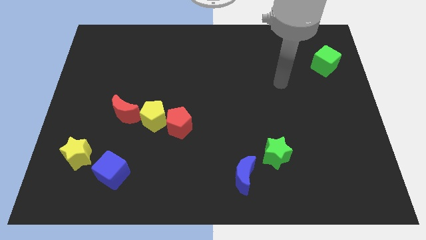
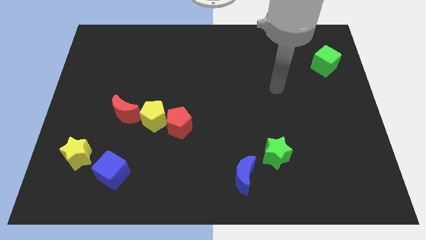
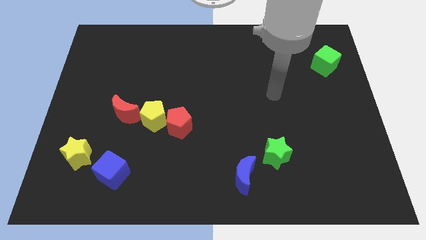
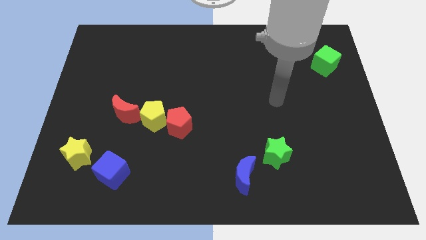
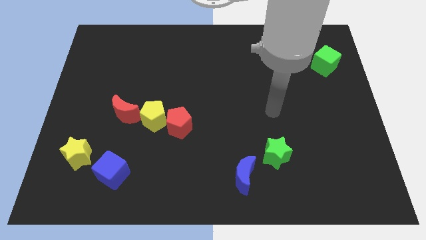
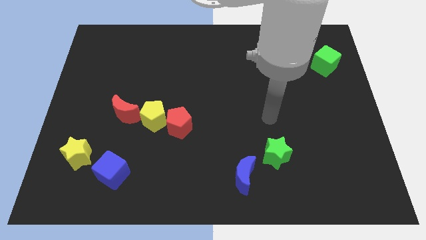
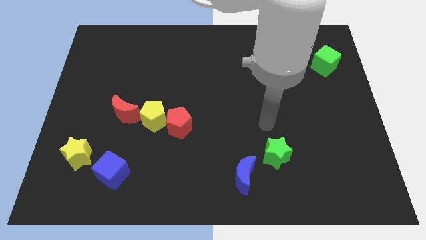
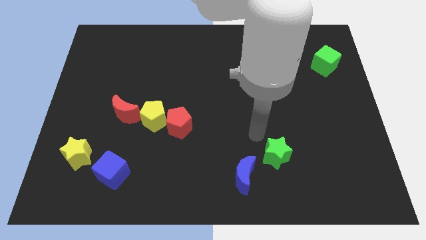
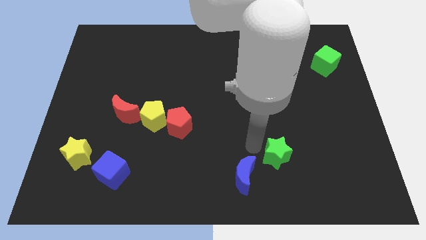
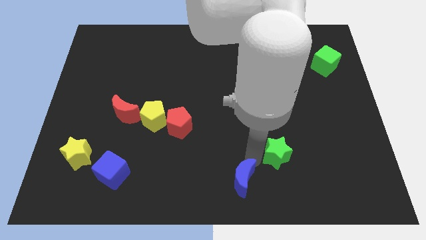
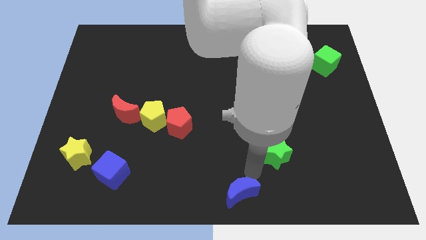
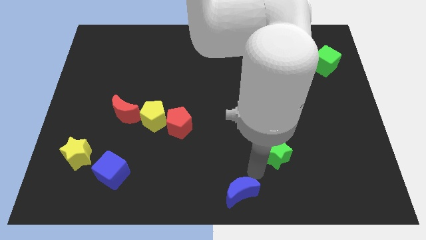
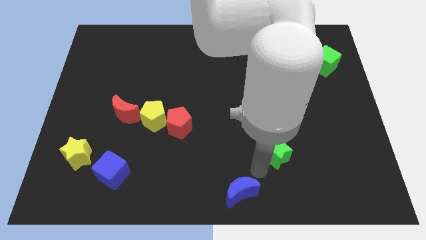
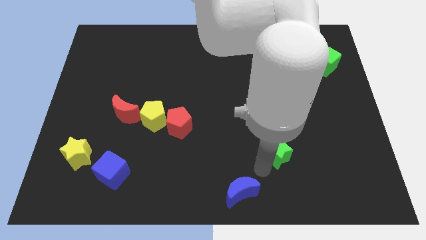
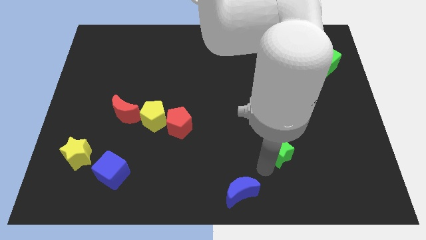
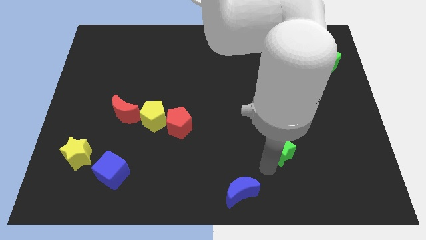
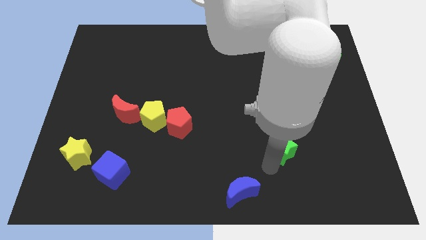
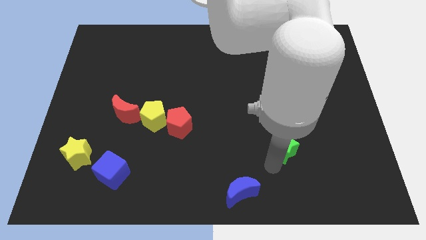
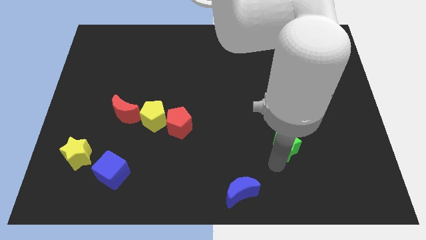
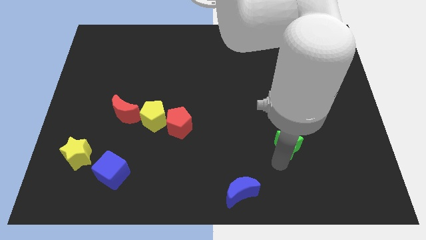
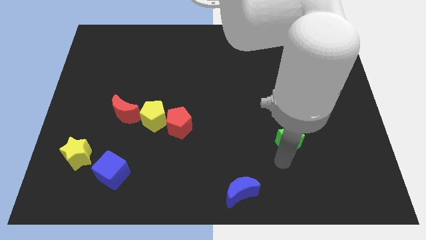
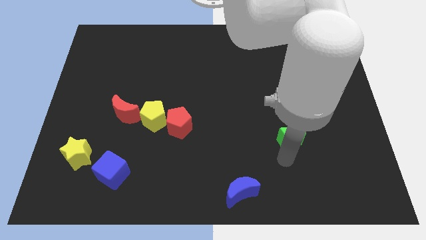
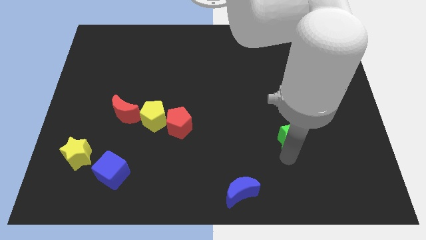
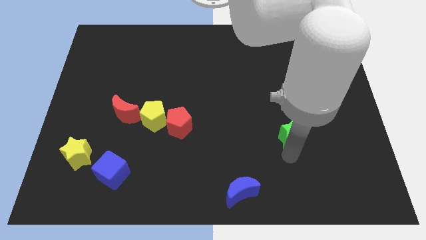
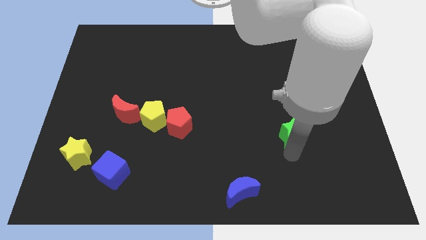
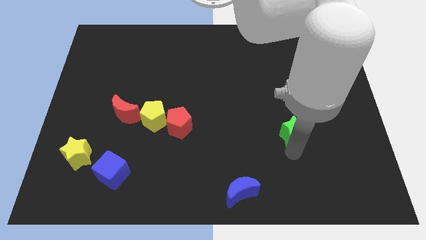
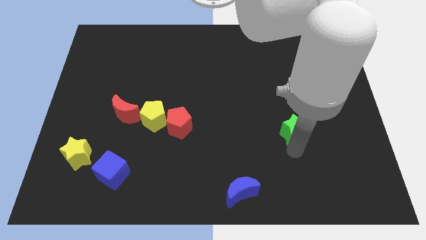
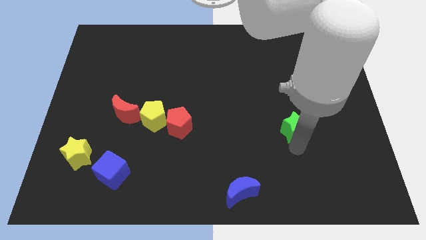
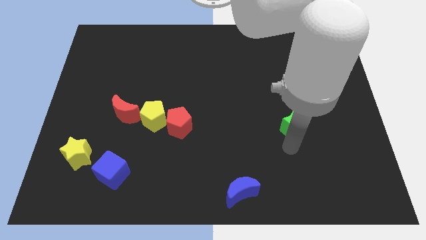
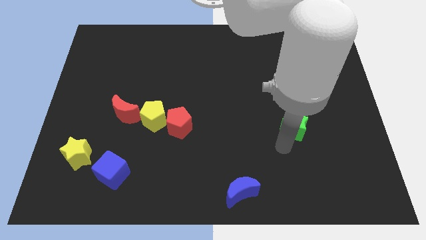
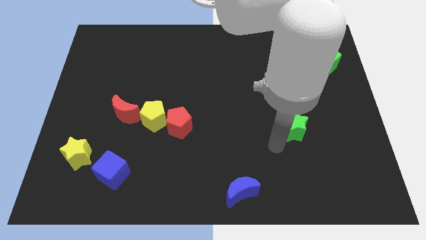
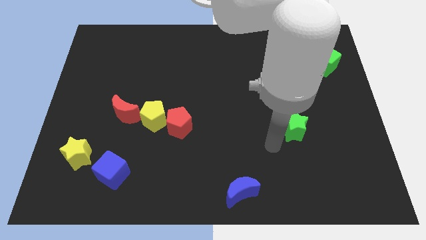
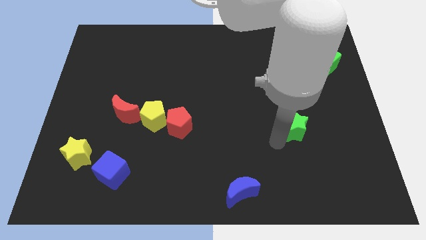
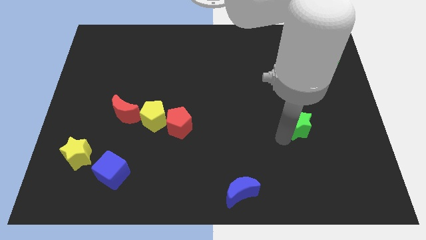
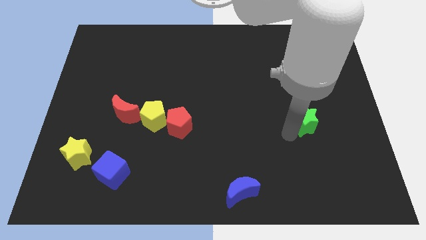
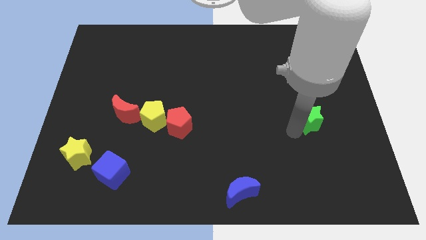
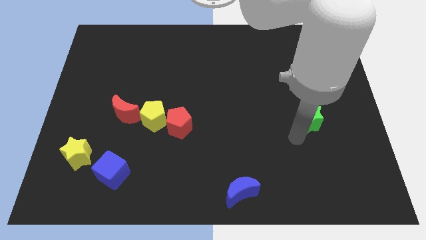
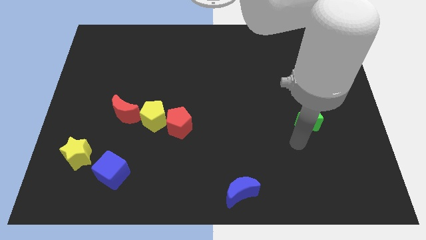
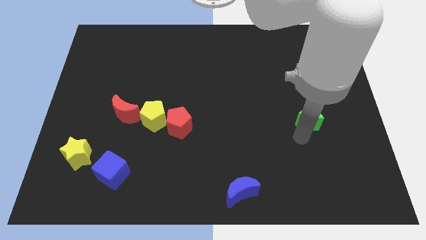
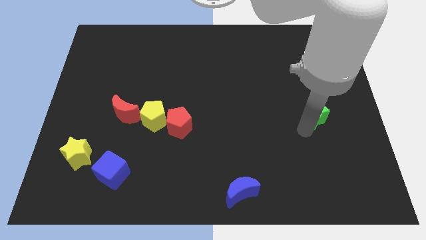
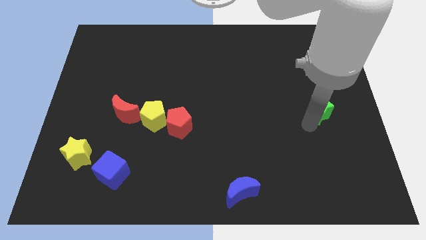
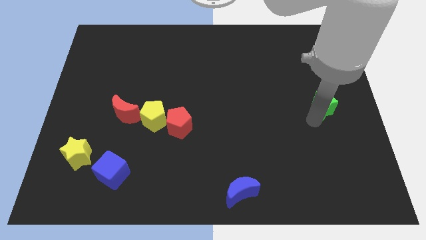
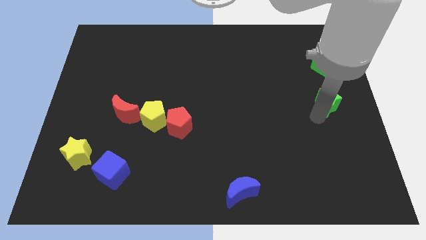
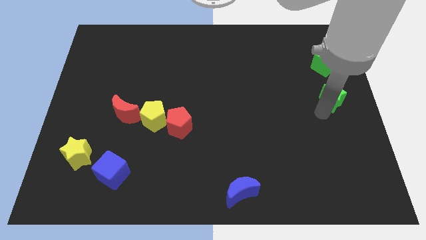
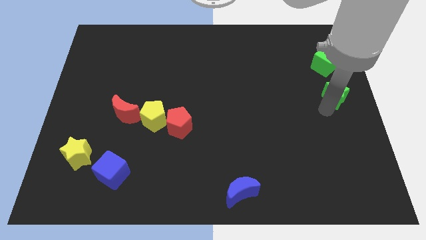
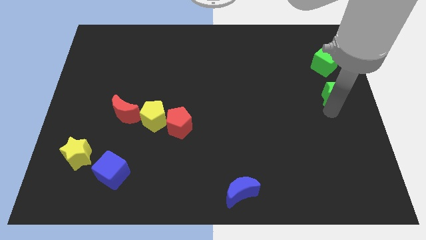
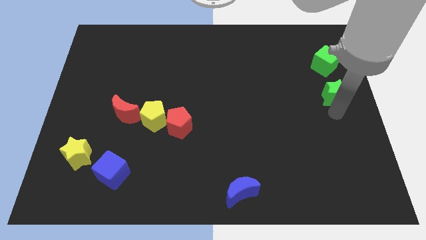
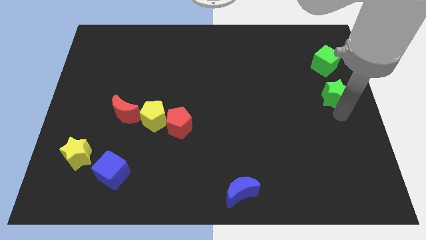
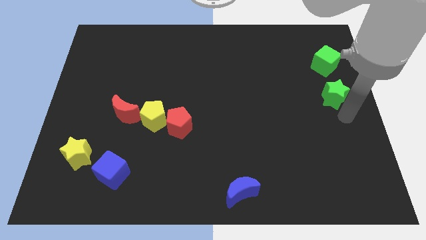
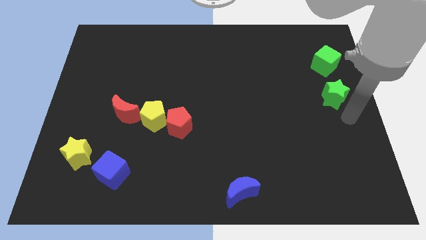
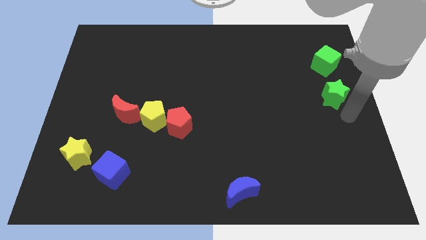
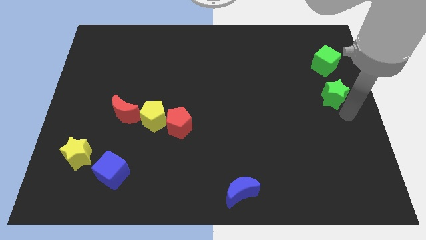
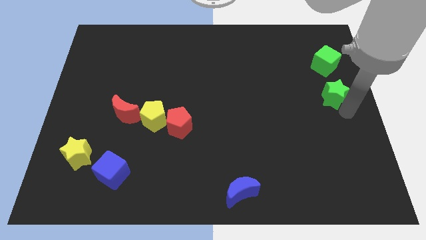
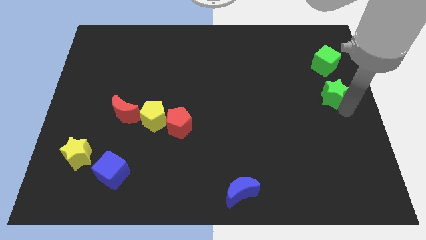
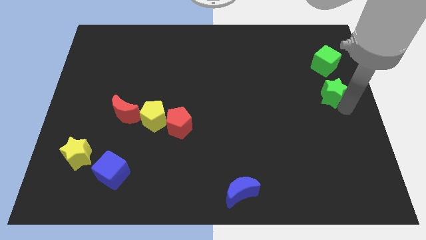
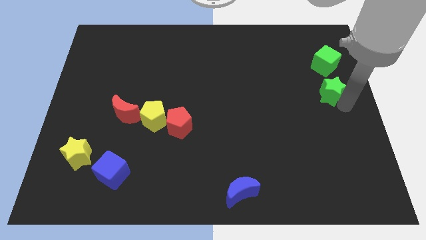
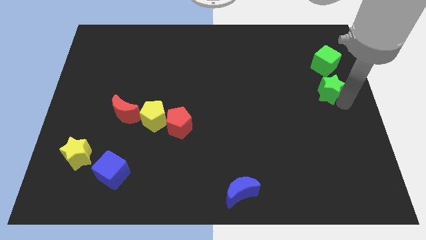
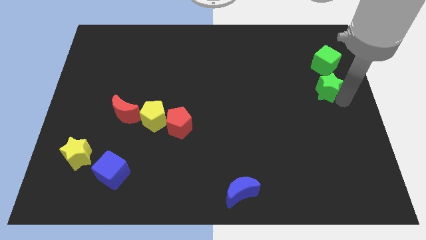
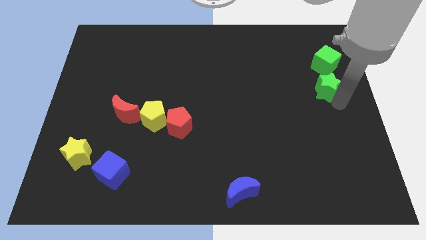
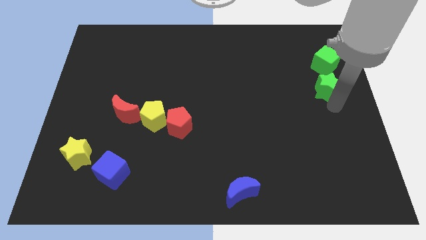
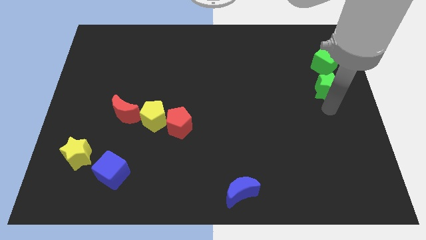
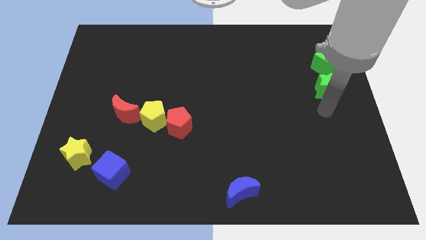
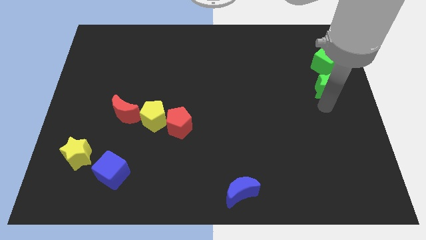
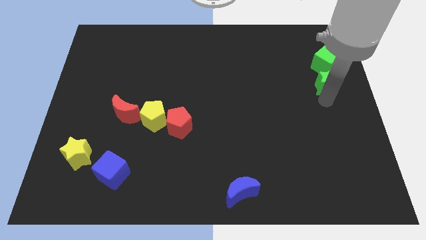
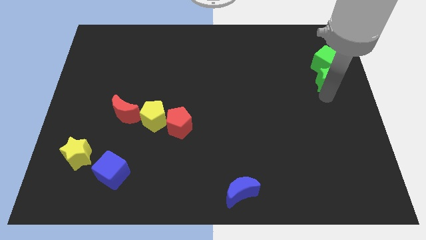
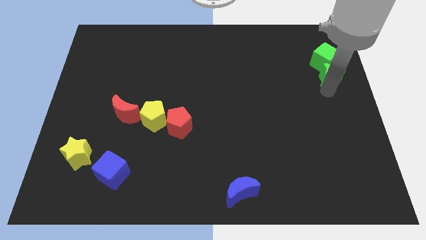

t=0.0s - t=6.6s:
slide the green star next to the green cube
